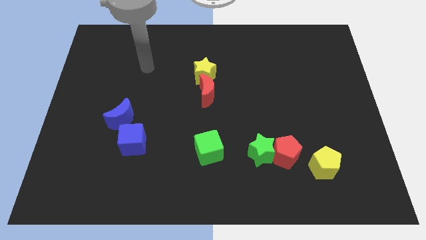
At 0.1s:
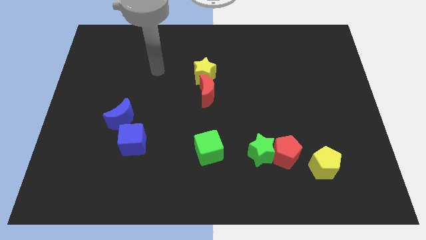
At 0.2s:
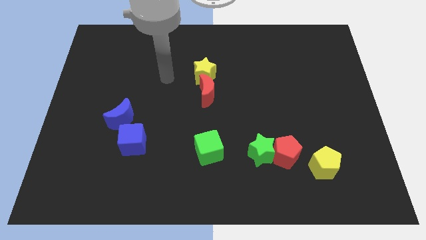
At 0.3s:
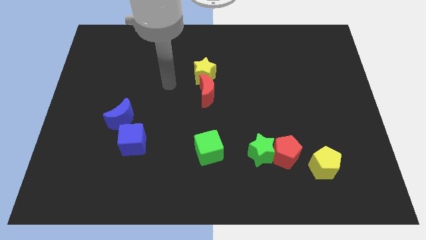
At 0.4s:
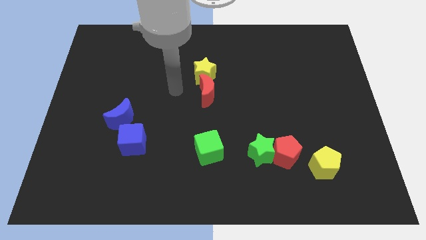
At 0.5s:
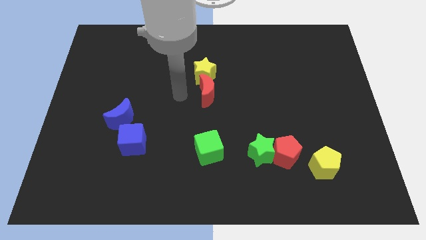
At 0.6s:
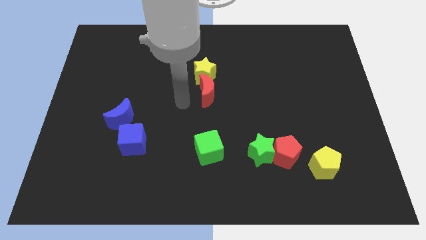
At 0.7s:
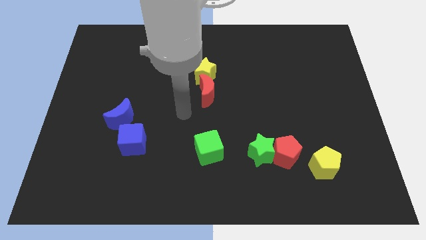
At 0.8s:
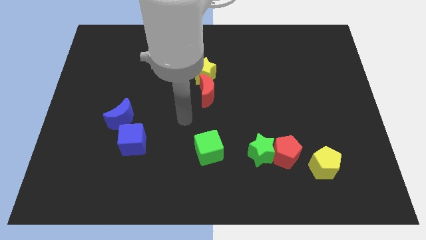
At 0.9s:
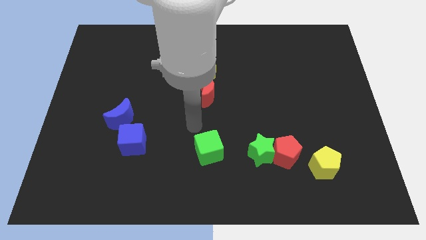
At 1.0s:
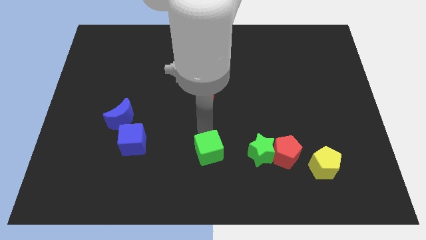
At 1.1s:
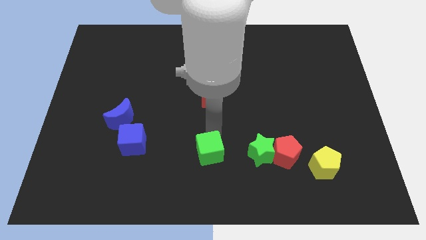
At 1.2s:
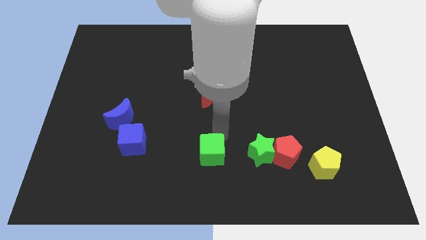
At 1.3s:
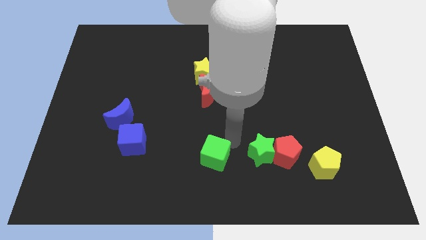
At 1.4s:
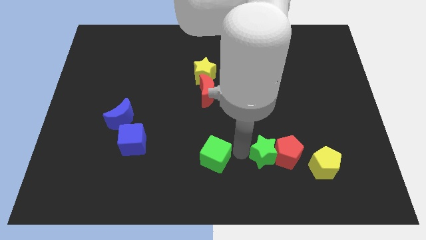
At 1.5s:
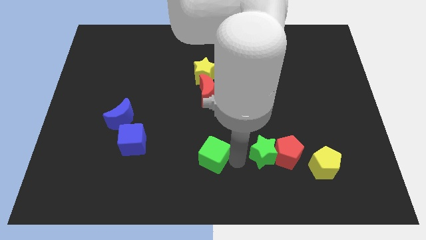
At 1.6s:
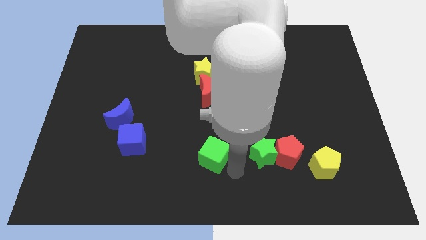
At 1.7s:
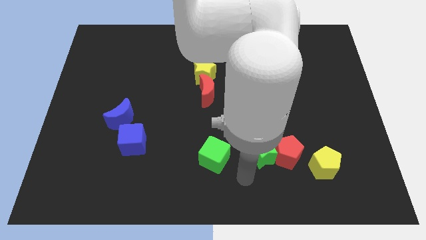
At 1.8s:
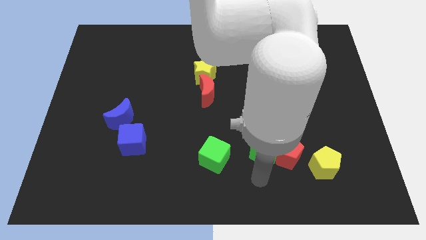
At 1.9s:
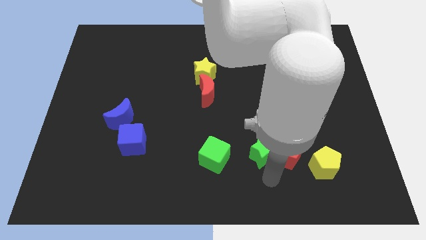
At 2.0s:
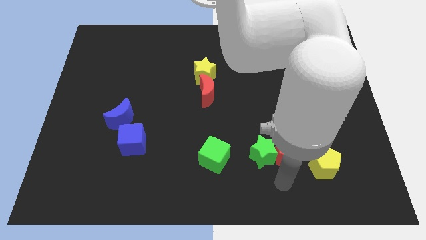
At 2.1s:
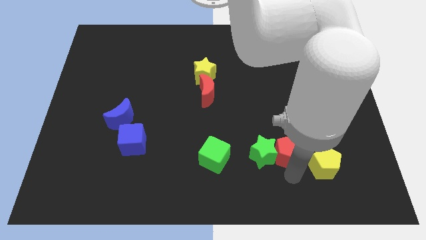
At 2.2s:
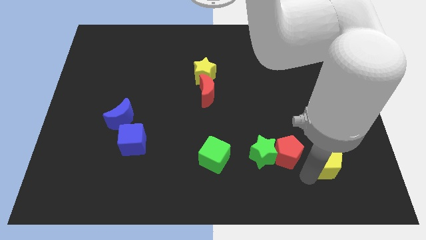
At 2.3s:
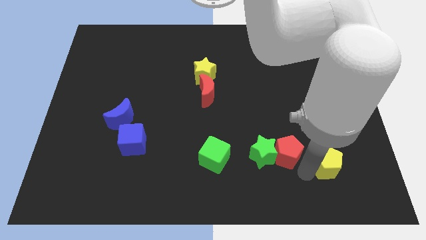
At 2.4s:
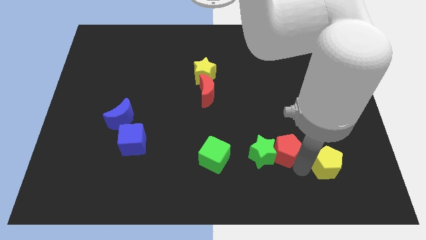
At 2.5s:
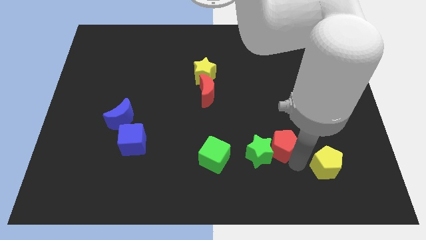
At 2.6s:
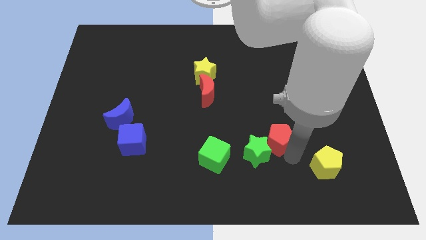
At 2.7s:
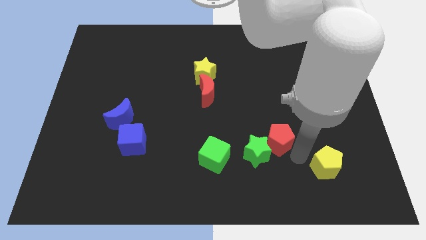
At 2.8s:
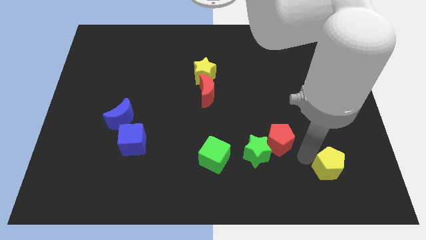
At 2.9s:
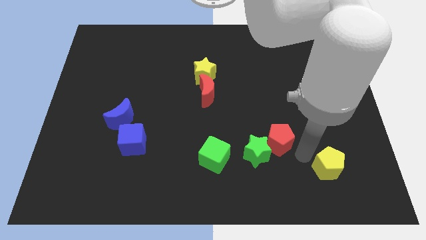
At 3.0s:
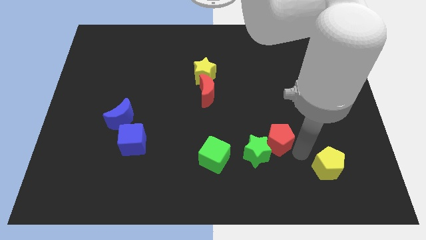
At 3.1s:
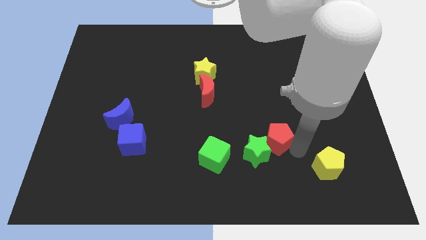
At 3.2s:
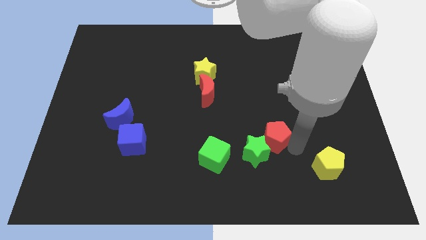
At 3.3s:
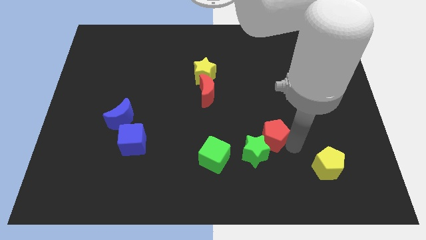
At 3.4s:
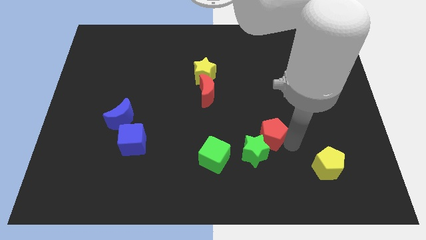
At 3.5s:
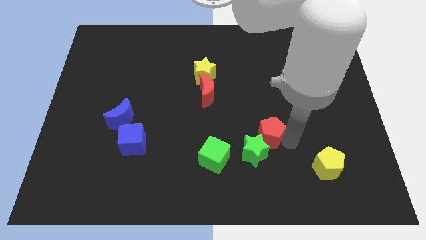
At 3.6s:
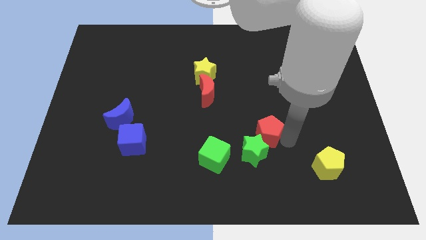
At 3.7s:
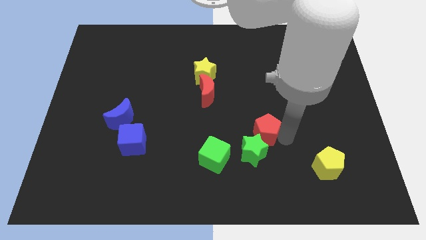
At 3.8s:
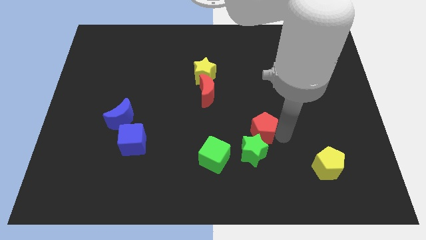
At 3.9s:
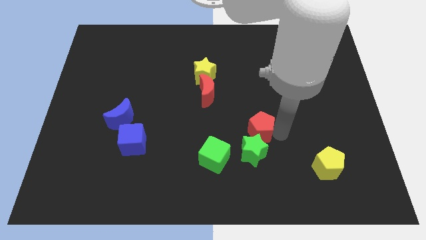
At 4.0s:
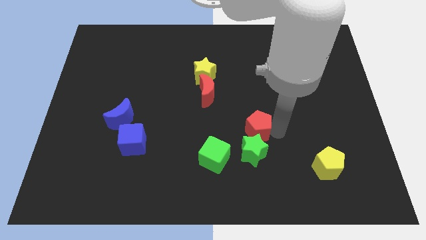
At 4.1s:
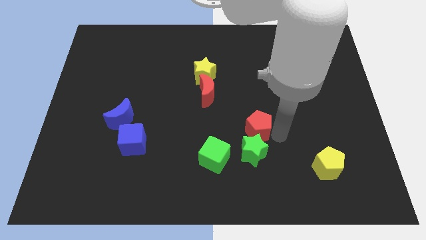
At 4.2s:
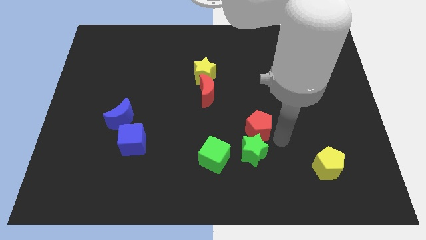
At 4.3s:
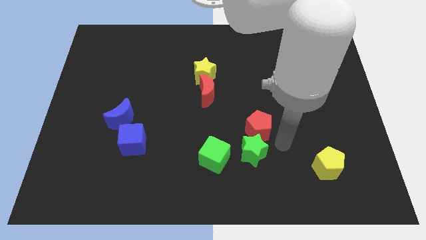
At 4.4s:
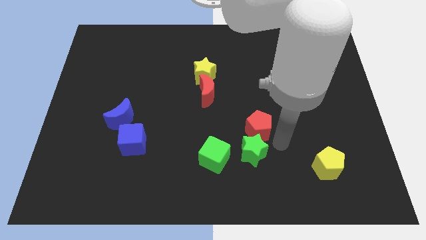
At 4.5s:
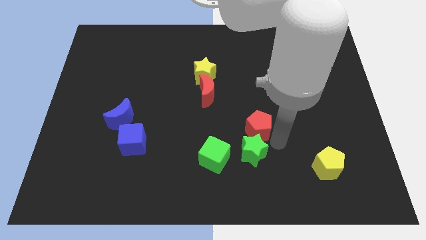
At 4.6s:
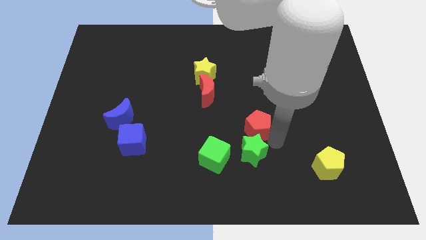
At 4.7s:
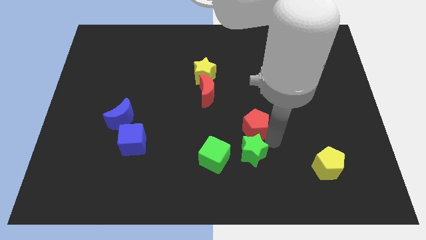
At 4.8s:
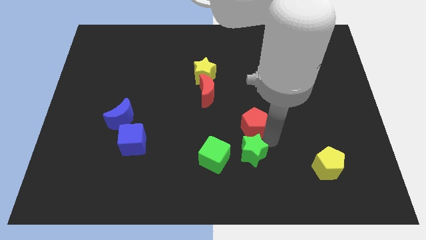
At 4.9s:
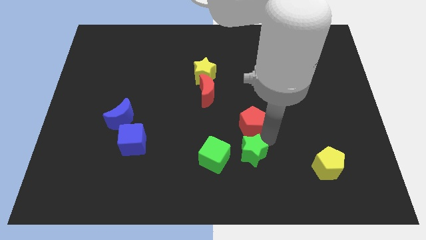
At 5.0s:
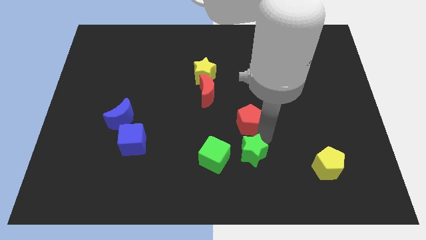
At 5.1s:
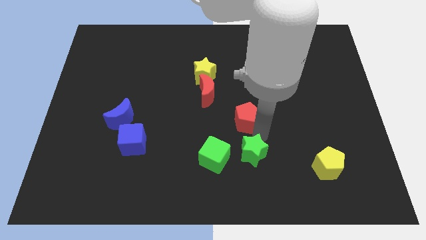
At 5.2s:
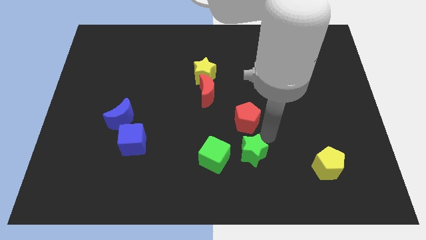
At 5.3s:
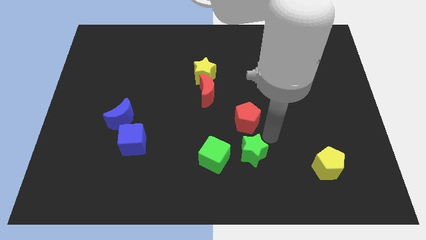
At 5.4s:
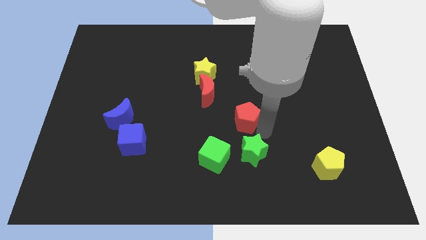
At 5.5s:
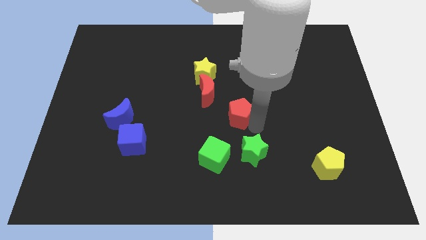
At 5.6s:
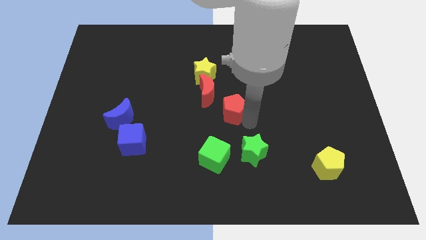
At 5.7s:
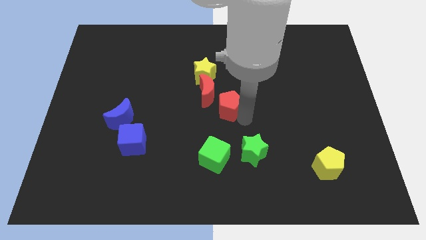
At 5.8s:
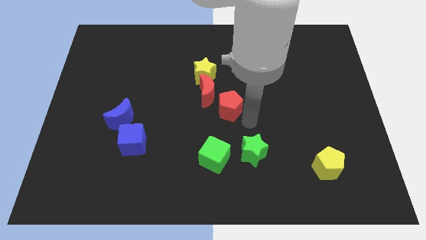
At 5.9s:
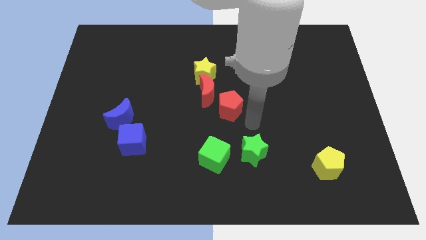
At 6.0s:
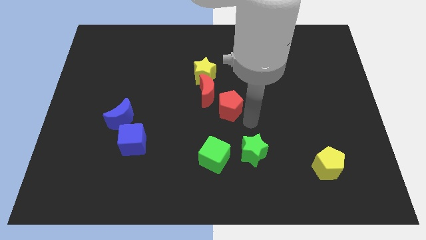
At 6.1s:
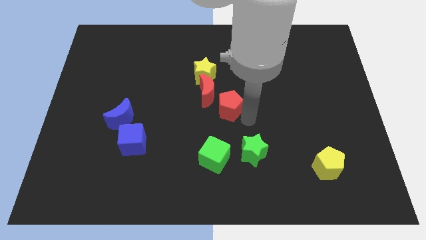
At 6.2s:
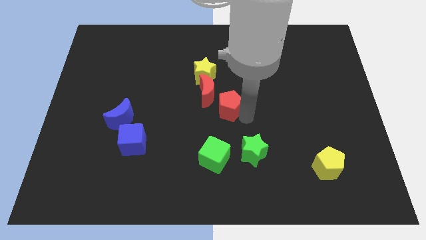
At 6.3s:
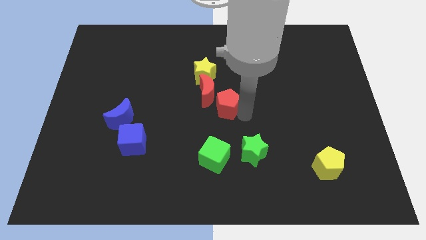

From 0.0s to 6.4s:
slide the red pentagon towards the red moon

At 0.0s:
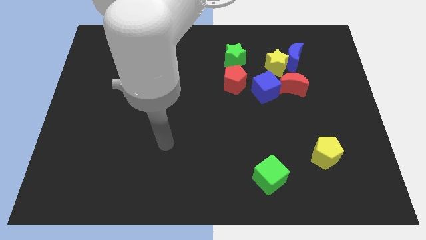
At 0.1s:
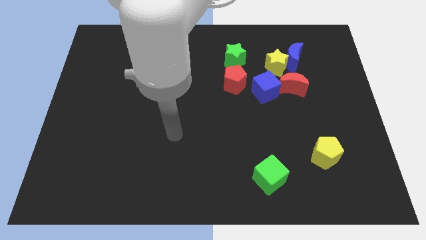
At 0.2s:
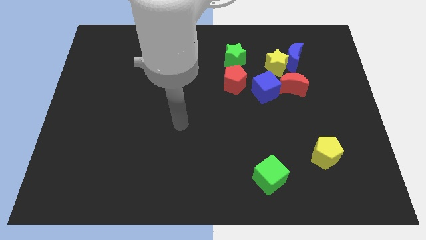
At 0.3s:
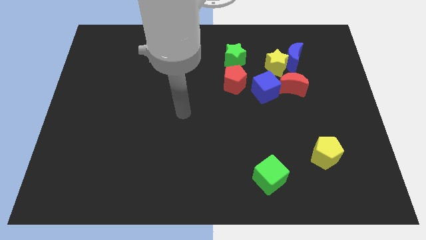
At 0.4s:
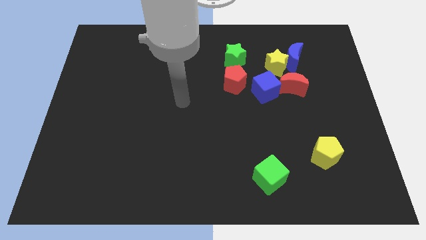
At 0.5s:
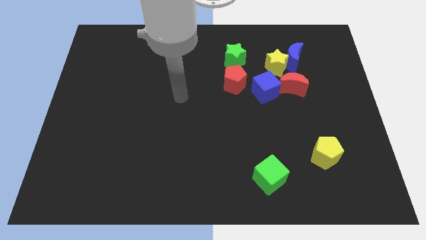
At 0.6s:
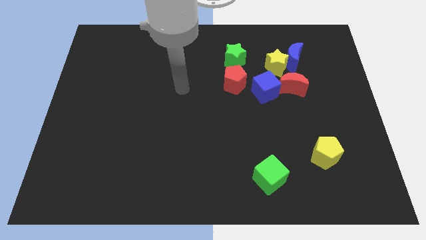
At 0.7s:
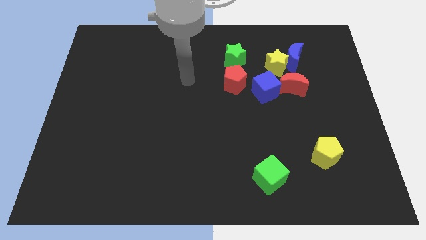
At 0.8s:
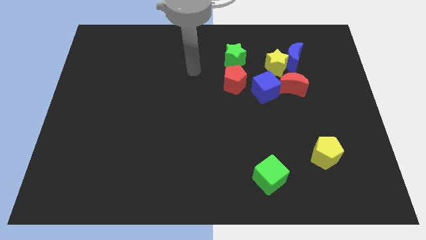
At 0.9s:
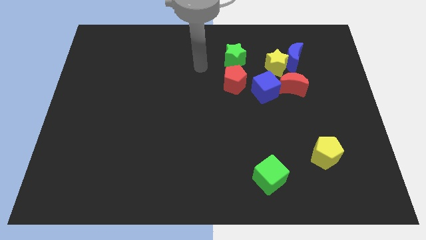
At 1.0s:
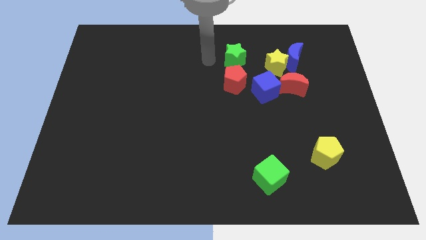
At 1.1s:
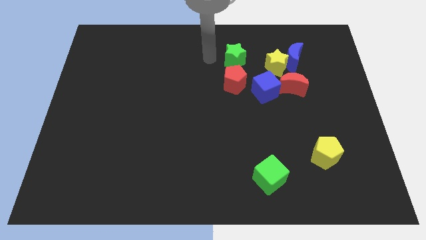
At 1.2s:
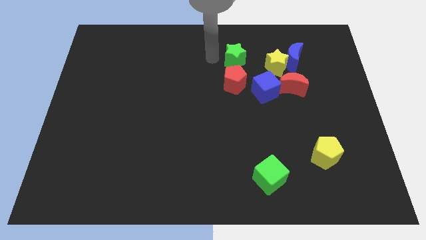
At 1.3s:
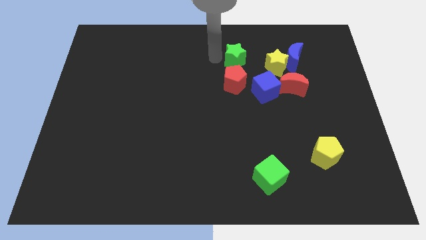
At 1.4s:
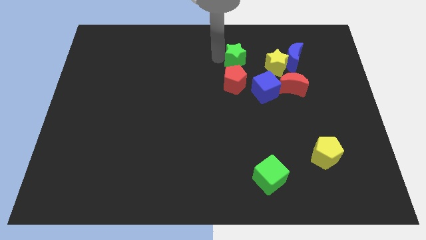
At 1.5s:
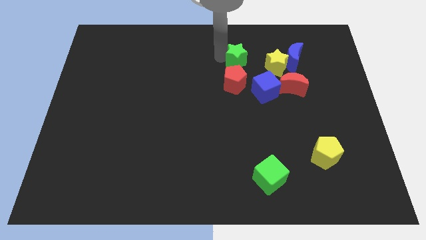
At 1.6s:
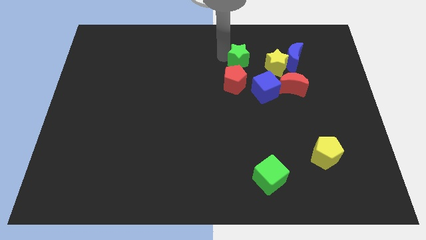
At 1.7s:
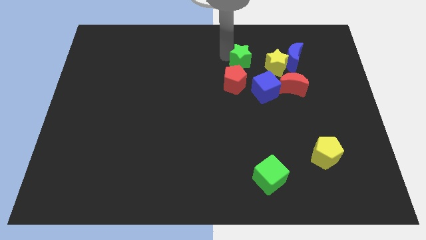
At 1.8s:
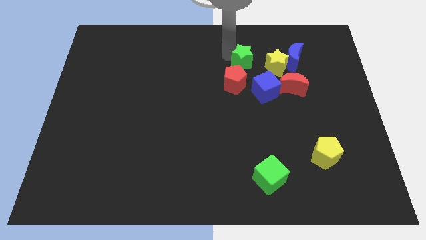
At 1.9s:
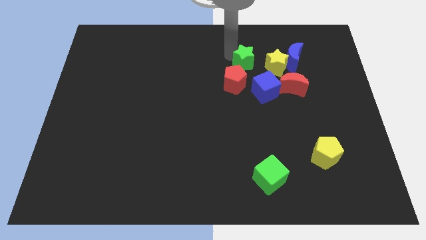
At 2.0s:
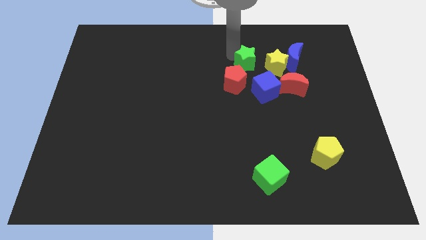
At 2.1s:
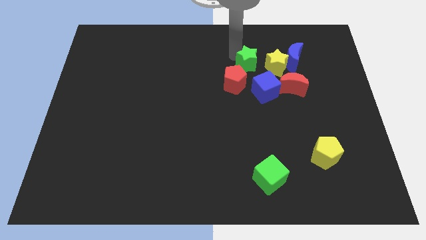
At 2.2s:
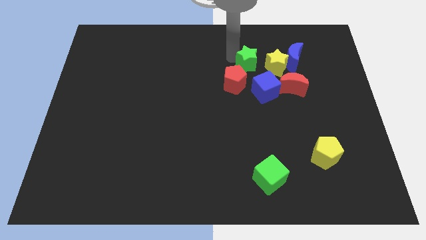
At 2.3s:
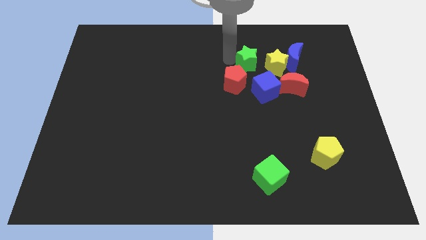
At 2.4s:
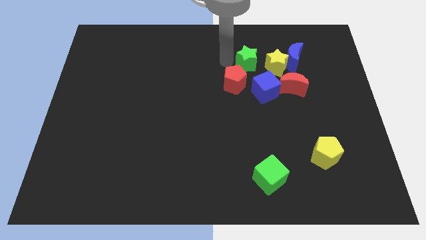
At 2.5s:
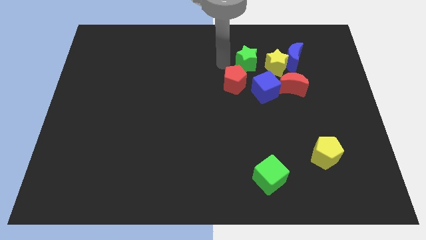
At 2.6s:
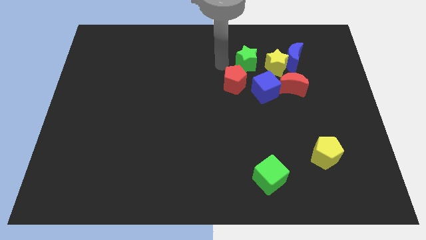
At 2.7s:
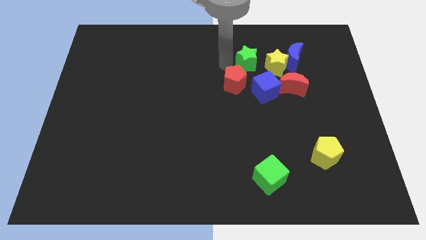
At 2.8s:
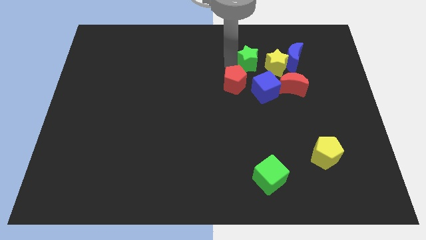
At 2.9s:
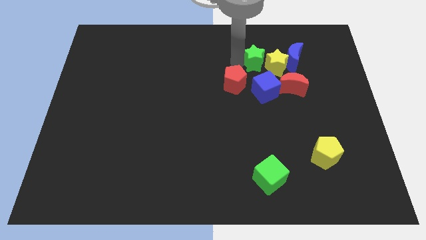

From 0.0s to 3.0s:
move the green star close to the yellow star
